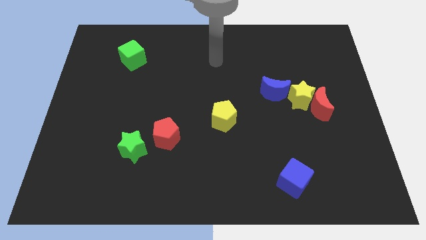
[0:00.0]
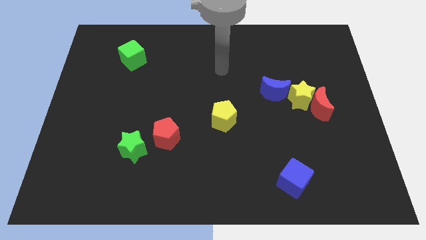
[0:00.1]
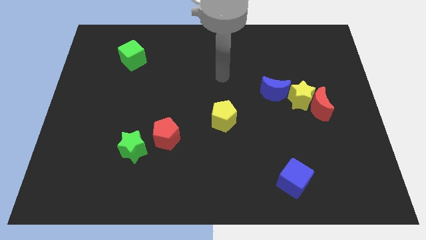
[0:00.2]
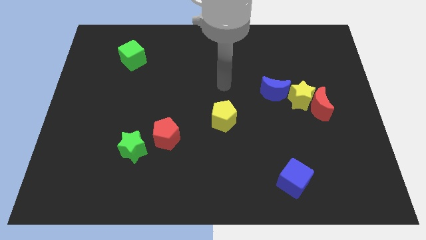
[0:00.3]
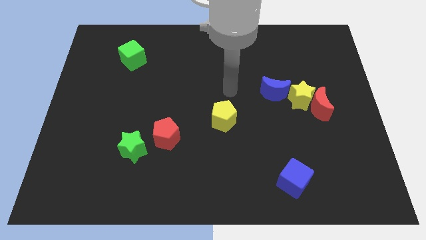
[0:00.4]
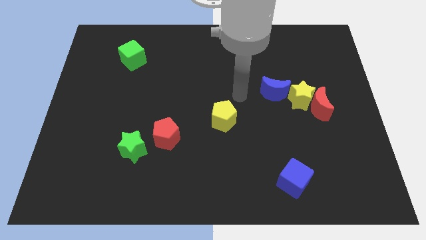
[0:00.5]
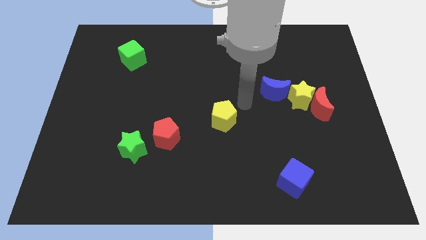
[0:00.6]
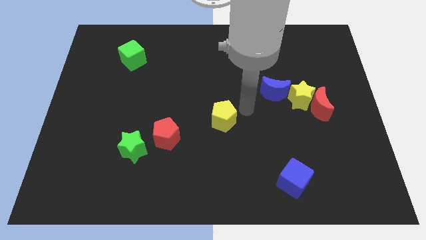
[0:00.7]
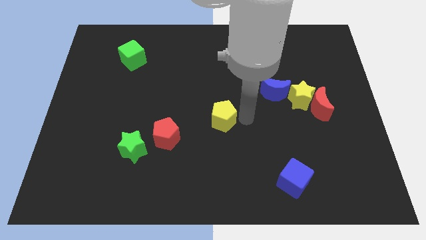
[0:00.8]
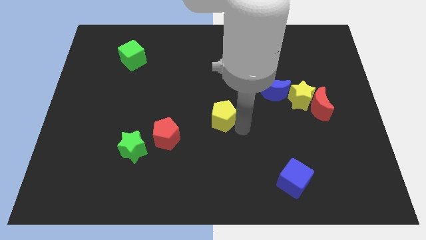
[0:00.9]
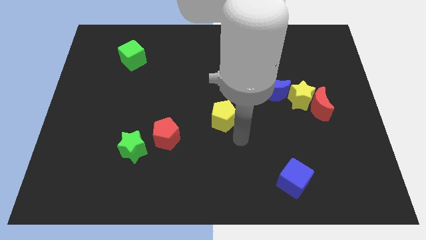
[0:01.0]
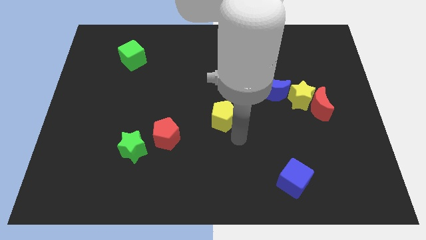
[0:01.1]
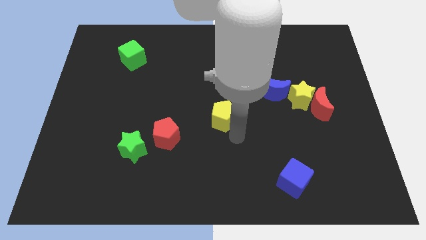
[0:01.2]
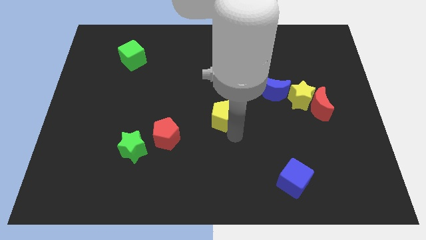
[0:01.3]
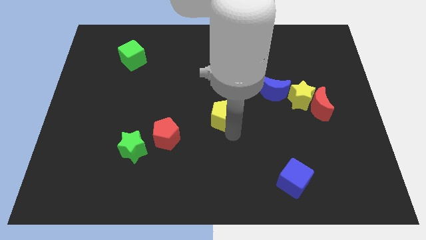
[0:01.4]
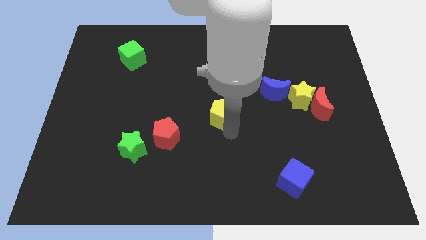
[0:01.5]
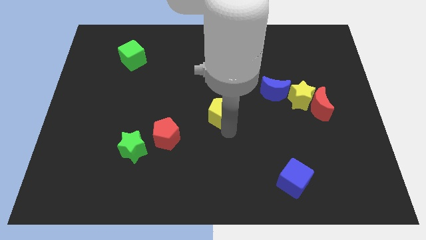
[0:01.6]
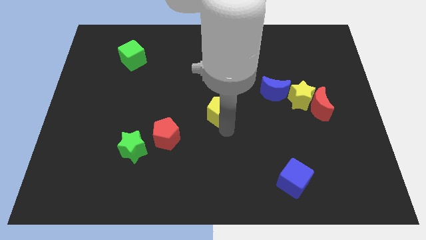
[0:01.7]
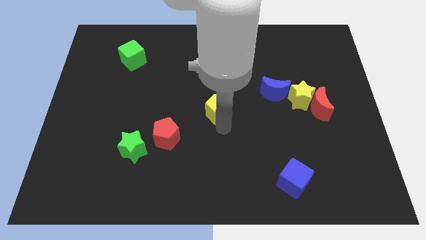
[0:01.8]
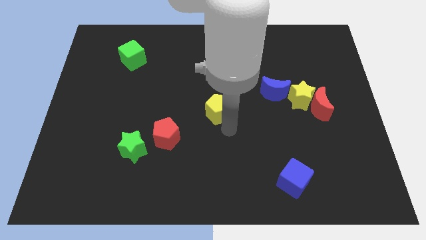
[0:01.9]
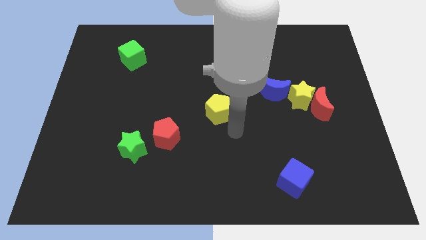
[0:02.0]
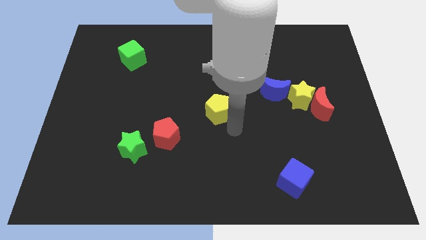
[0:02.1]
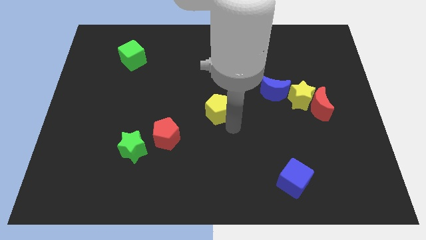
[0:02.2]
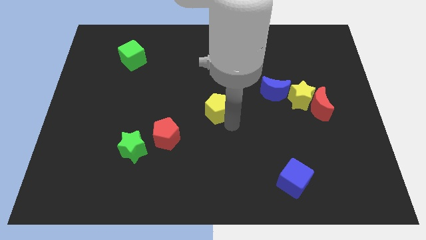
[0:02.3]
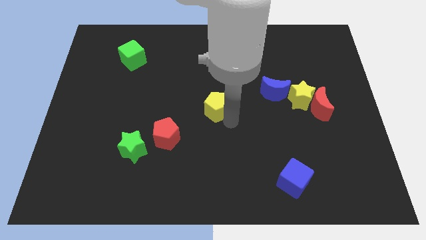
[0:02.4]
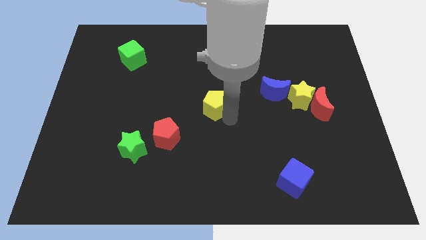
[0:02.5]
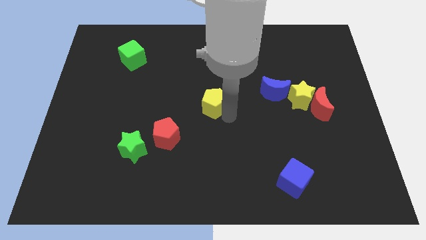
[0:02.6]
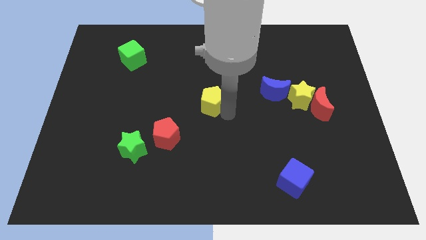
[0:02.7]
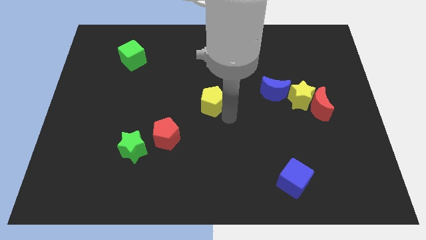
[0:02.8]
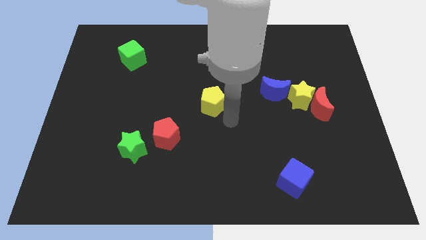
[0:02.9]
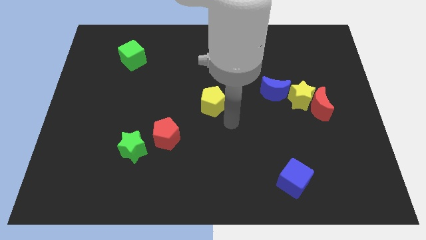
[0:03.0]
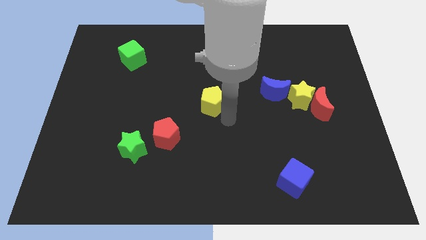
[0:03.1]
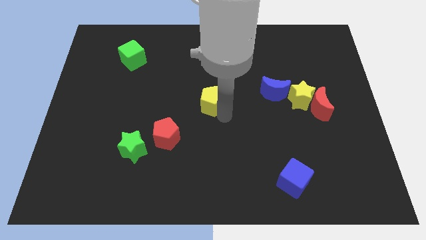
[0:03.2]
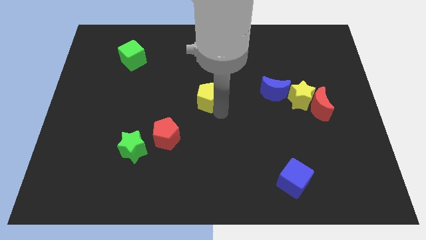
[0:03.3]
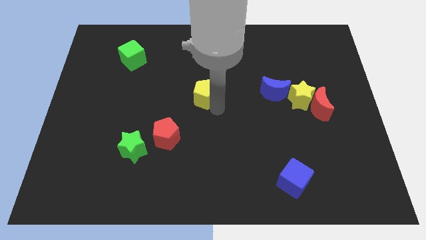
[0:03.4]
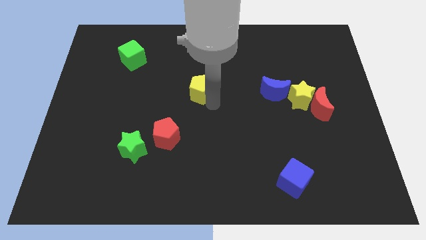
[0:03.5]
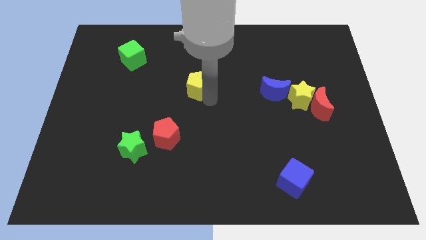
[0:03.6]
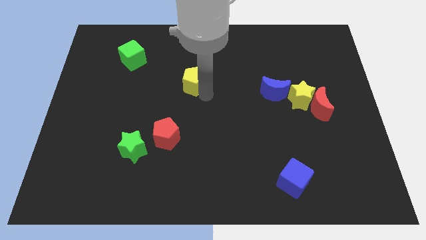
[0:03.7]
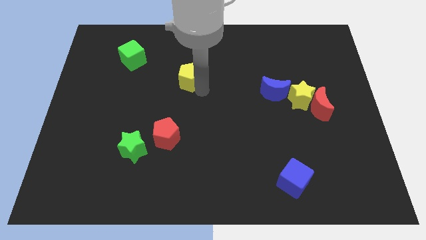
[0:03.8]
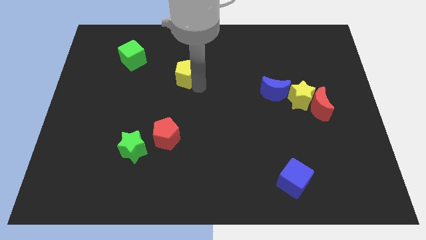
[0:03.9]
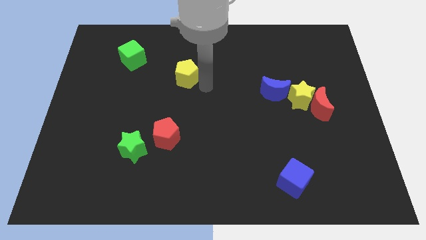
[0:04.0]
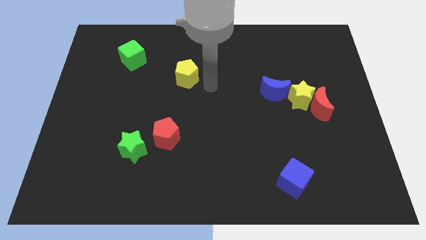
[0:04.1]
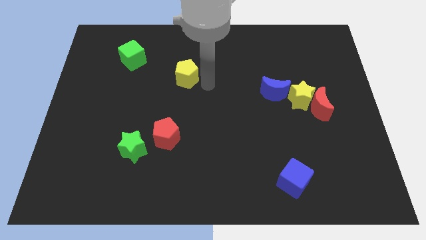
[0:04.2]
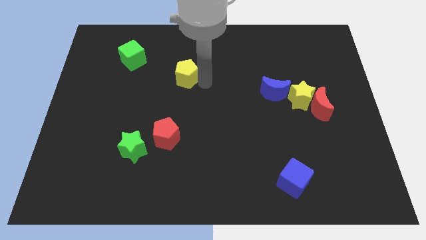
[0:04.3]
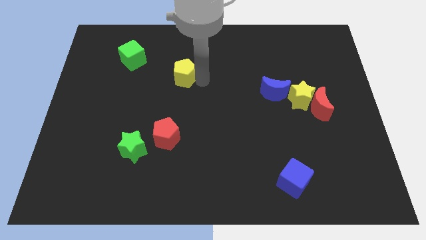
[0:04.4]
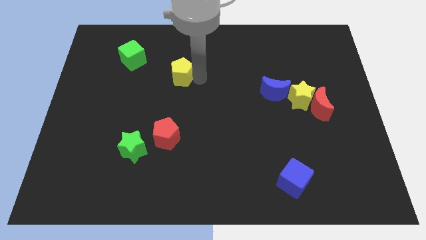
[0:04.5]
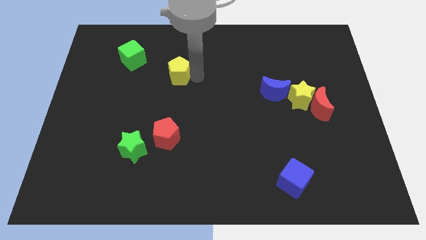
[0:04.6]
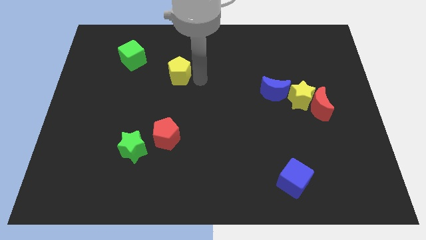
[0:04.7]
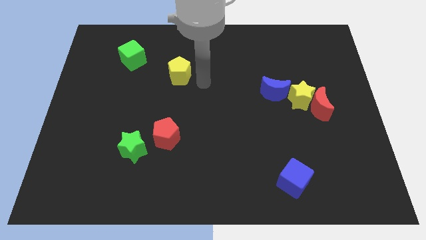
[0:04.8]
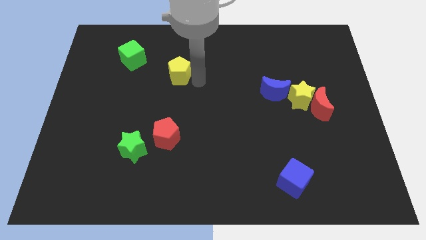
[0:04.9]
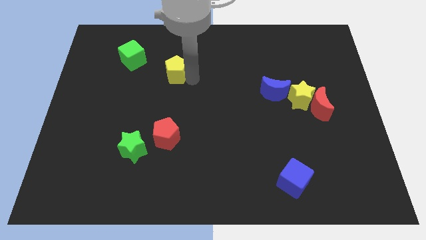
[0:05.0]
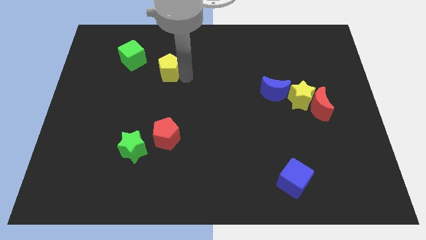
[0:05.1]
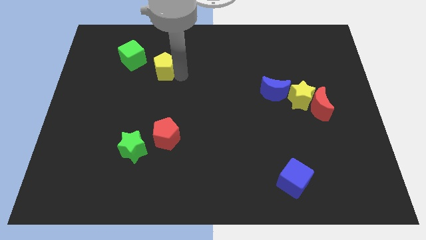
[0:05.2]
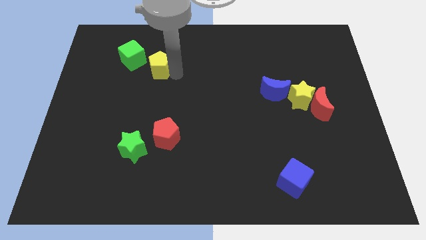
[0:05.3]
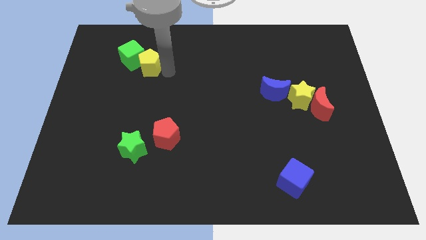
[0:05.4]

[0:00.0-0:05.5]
move the yellow pentagon to the green cube

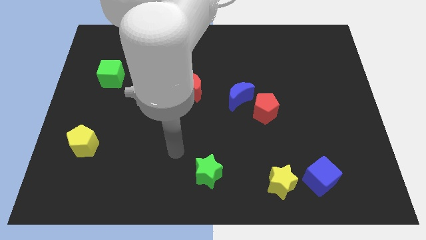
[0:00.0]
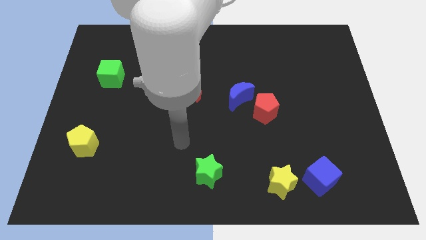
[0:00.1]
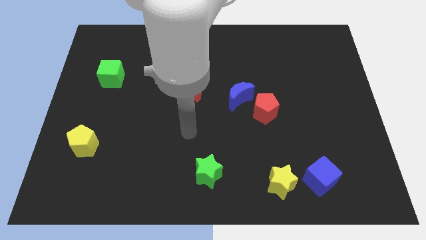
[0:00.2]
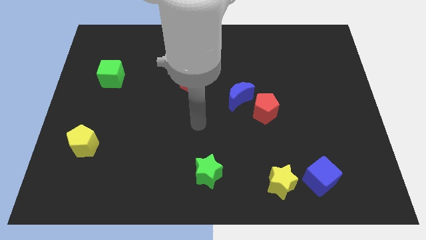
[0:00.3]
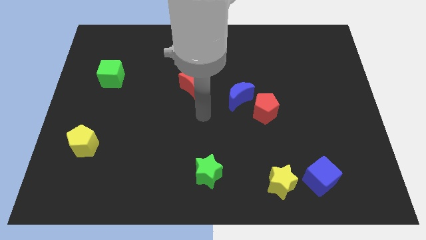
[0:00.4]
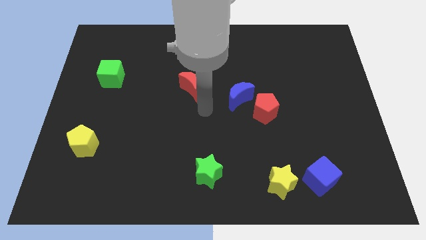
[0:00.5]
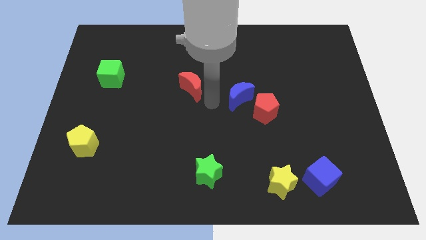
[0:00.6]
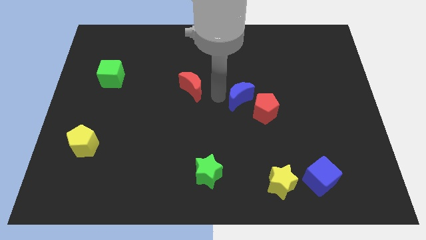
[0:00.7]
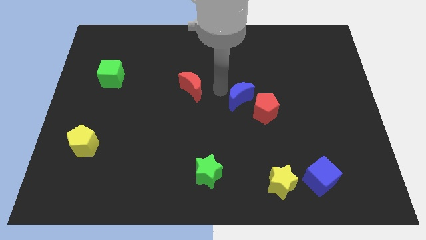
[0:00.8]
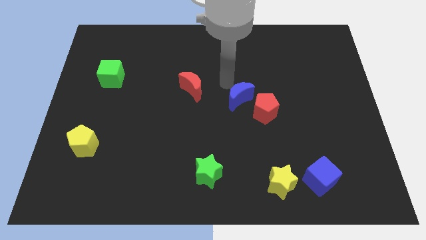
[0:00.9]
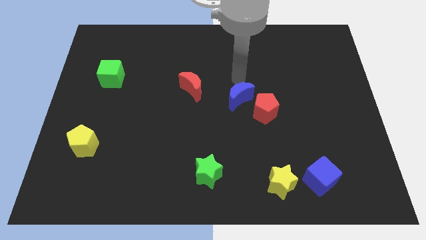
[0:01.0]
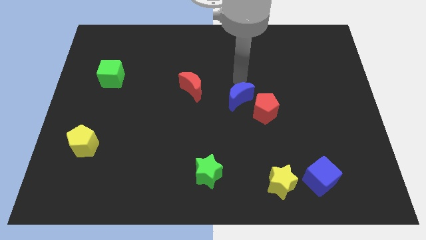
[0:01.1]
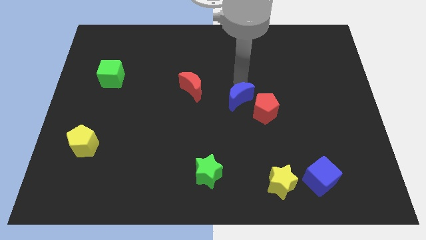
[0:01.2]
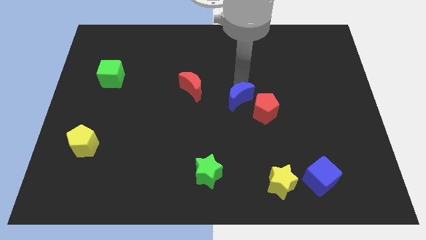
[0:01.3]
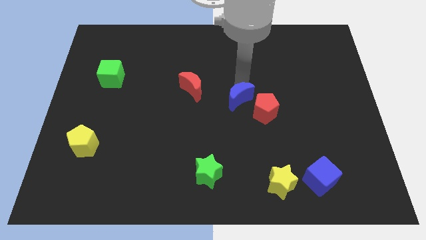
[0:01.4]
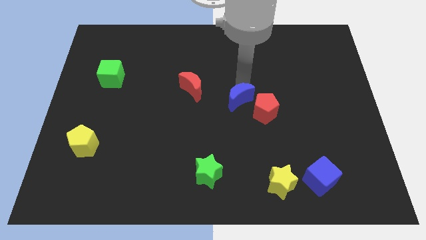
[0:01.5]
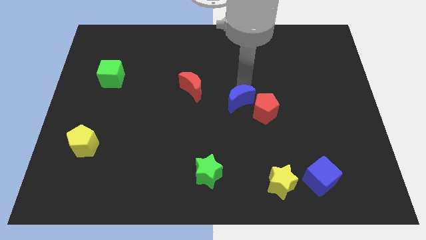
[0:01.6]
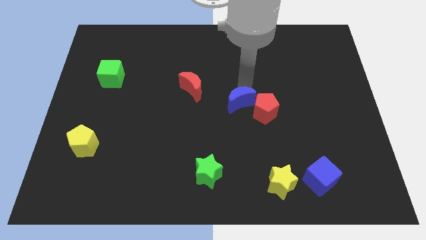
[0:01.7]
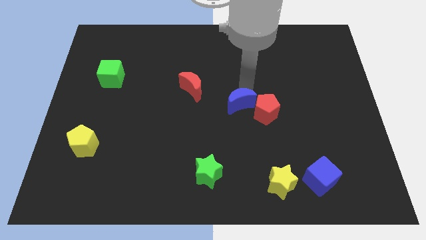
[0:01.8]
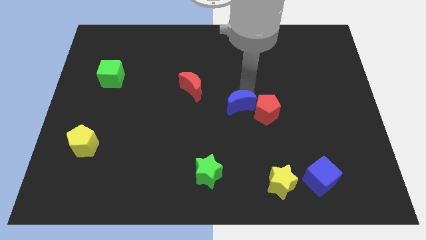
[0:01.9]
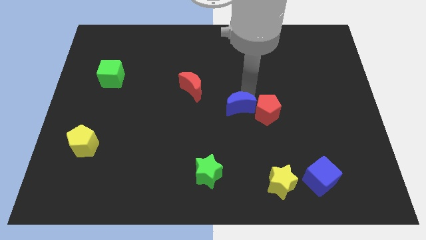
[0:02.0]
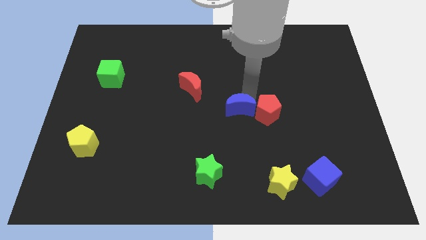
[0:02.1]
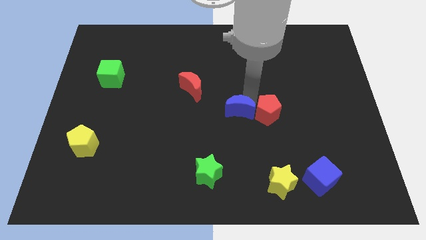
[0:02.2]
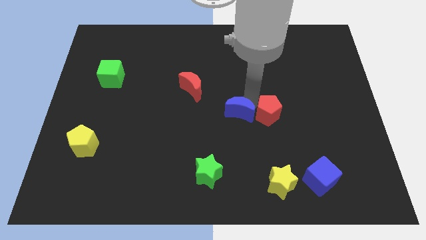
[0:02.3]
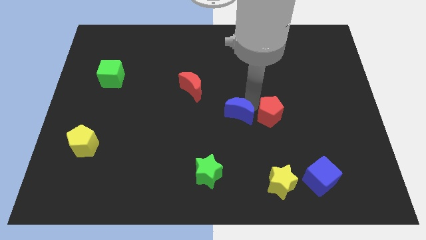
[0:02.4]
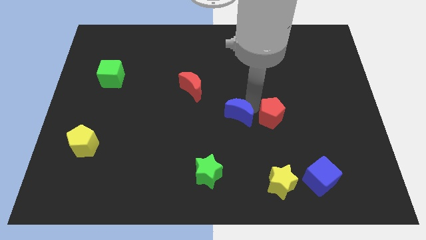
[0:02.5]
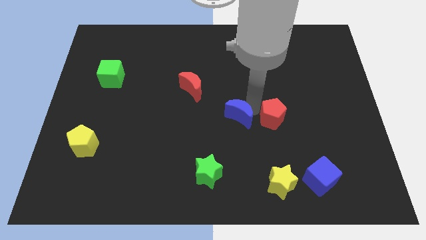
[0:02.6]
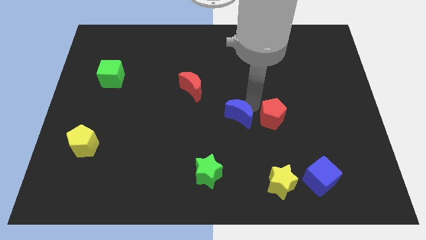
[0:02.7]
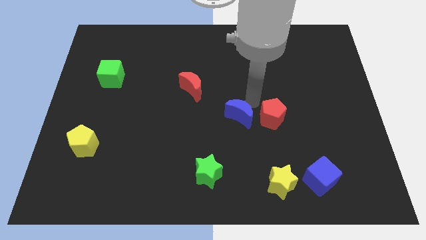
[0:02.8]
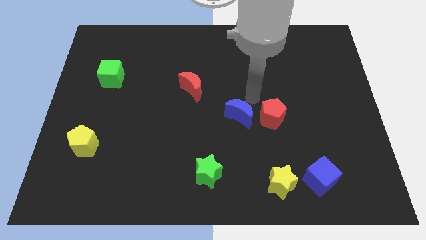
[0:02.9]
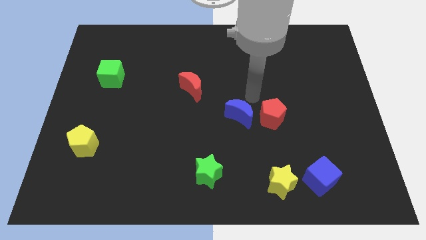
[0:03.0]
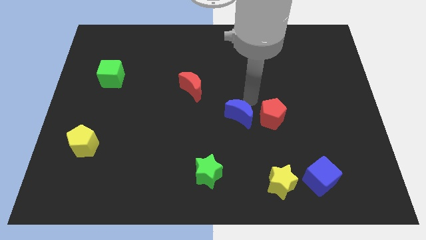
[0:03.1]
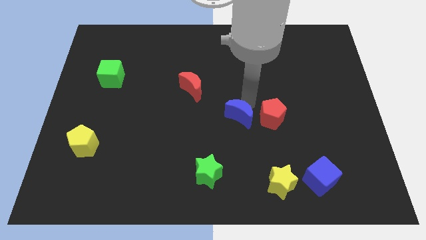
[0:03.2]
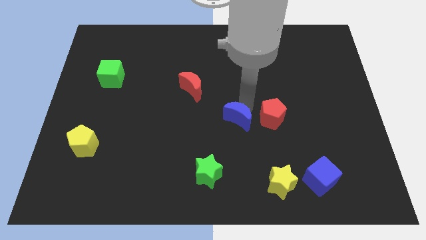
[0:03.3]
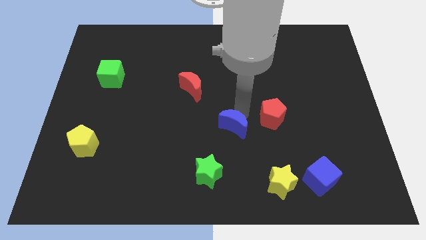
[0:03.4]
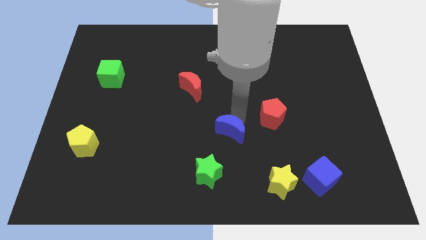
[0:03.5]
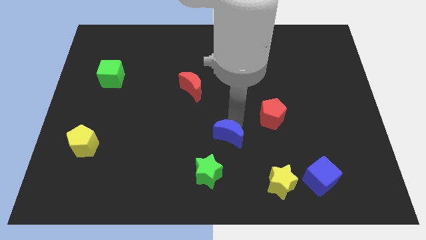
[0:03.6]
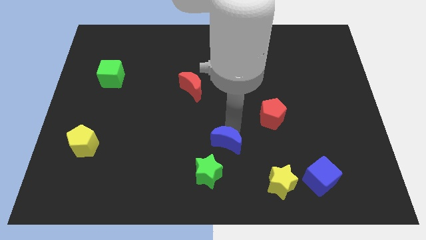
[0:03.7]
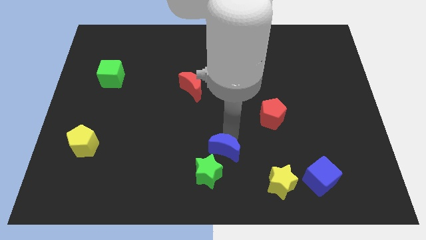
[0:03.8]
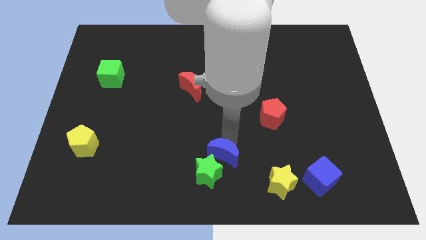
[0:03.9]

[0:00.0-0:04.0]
put the blue moon to the green star
